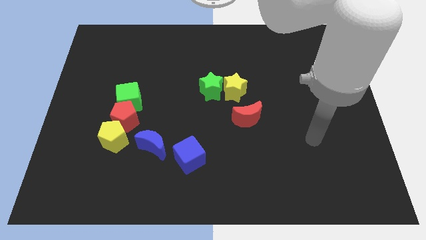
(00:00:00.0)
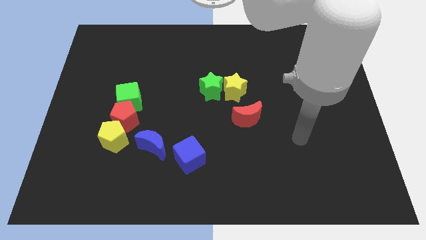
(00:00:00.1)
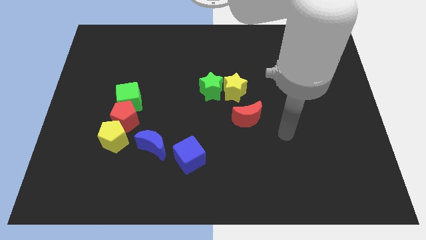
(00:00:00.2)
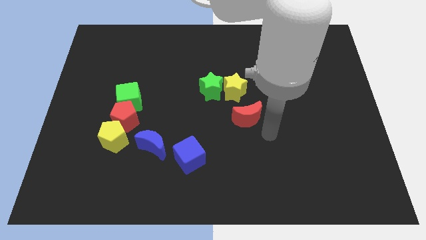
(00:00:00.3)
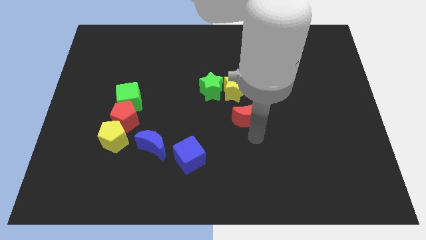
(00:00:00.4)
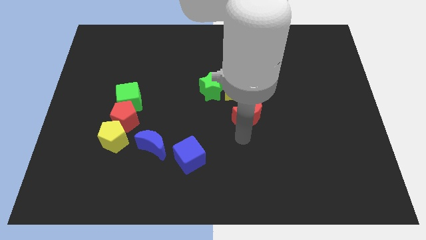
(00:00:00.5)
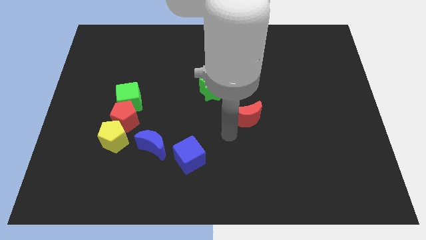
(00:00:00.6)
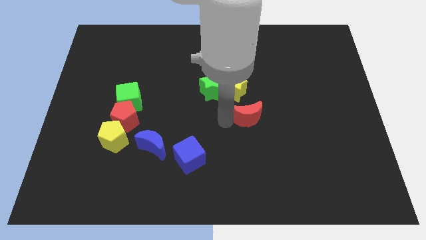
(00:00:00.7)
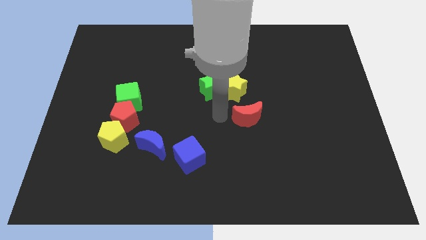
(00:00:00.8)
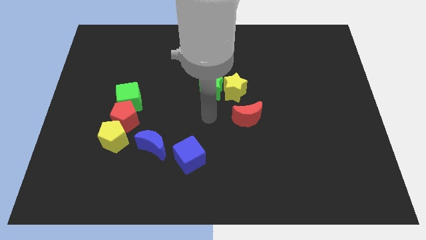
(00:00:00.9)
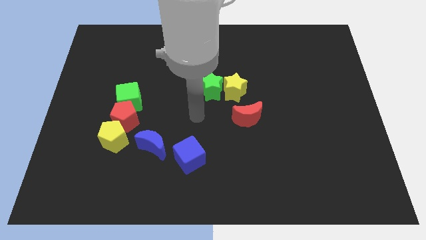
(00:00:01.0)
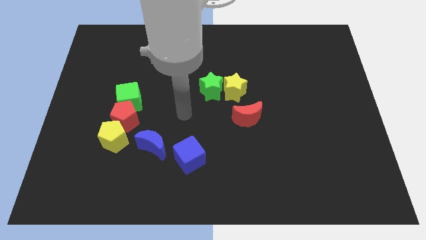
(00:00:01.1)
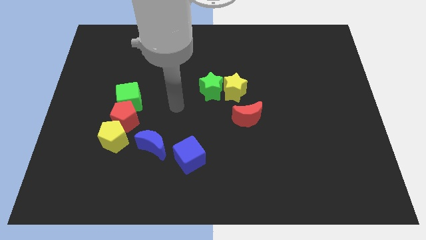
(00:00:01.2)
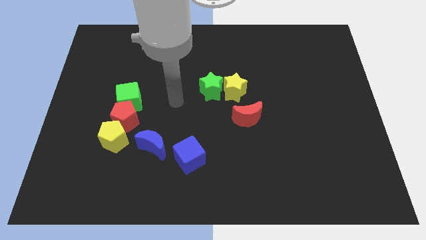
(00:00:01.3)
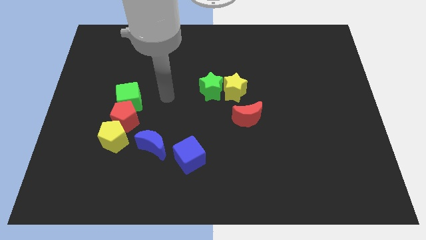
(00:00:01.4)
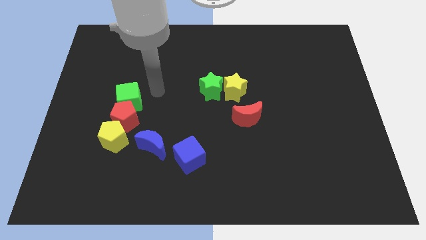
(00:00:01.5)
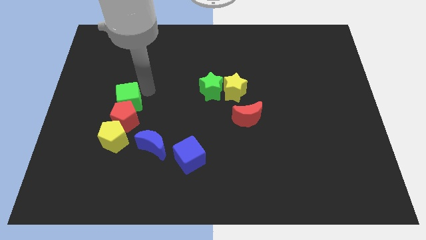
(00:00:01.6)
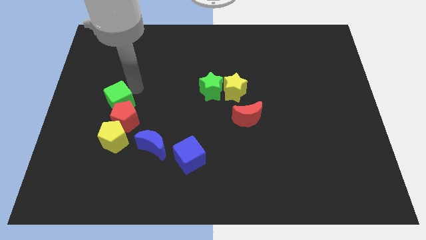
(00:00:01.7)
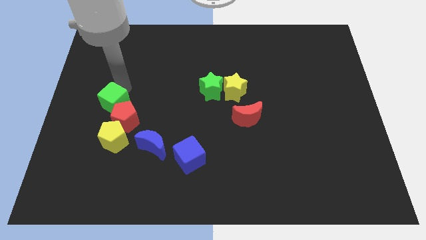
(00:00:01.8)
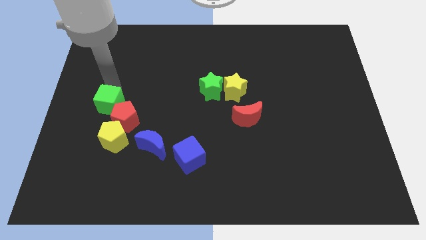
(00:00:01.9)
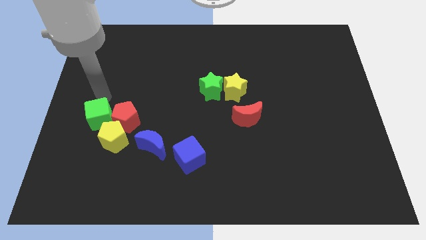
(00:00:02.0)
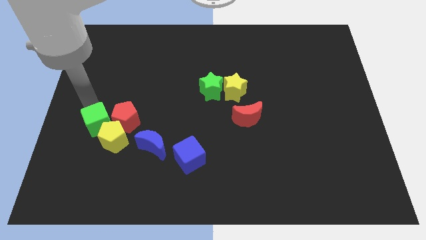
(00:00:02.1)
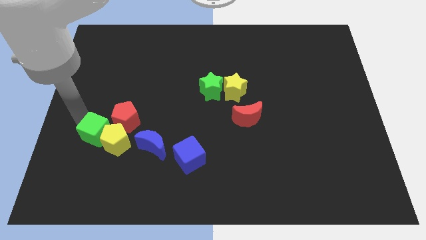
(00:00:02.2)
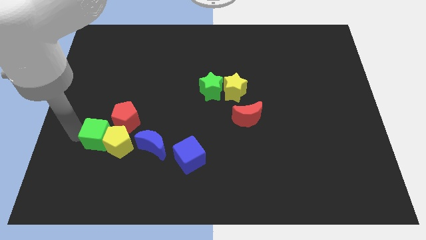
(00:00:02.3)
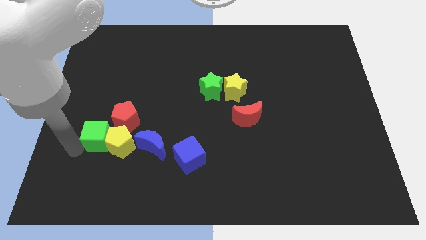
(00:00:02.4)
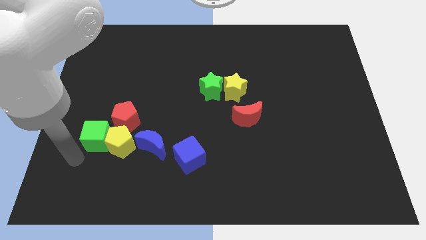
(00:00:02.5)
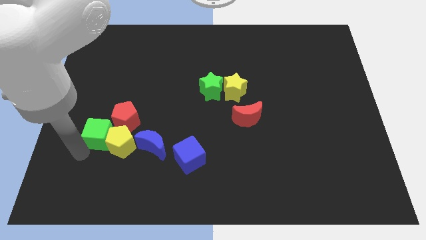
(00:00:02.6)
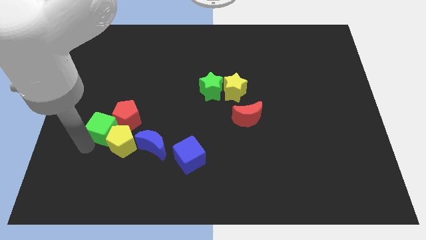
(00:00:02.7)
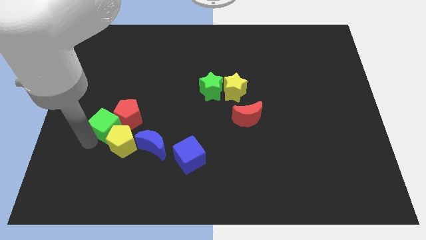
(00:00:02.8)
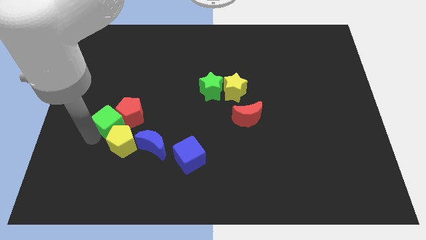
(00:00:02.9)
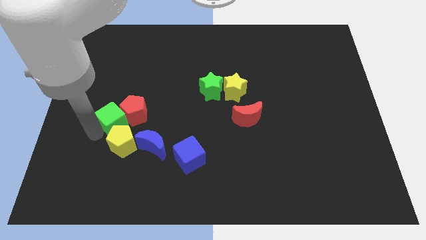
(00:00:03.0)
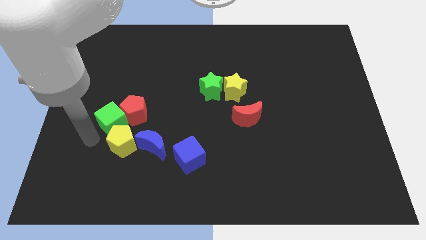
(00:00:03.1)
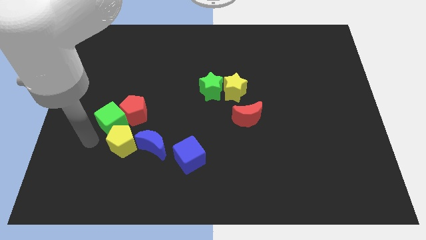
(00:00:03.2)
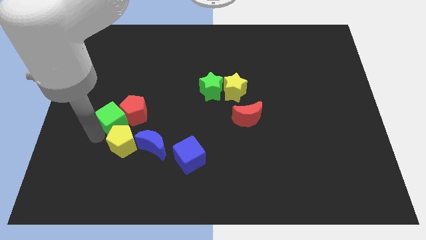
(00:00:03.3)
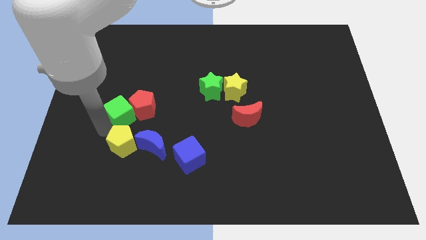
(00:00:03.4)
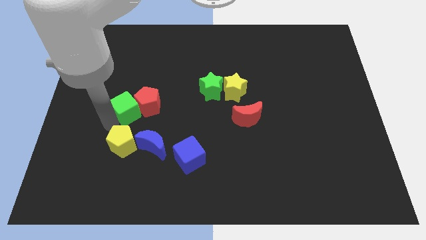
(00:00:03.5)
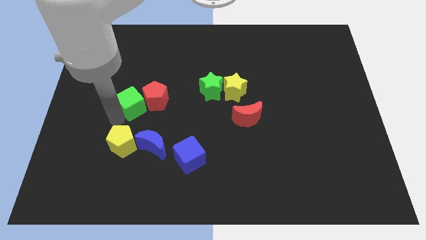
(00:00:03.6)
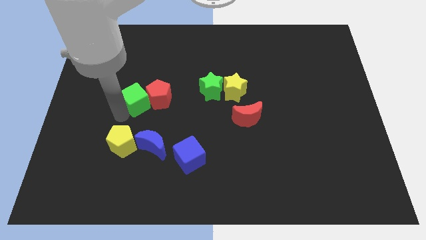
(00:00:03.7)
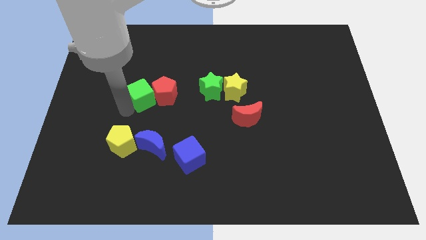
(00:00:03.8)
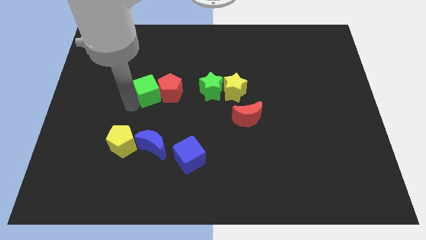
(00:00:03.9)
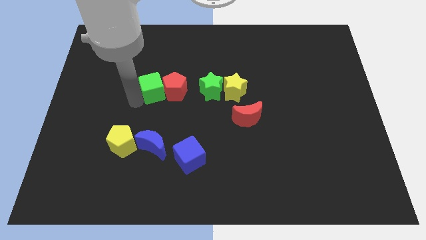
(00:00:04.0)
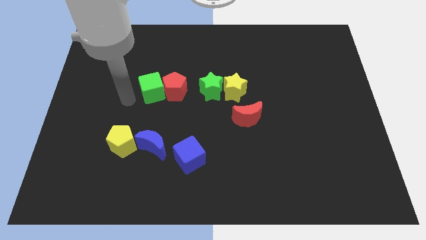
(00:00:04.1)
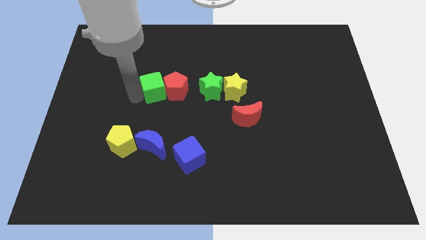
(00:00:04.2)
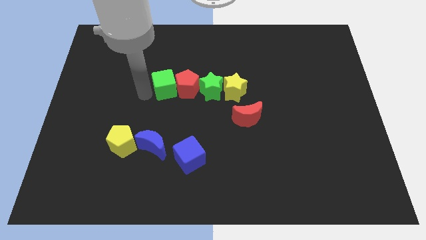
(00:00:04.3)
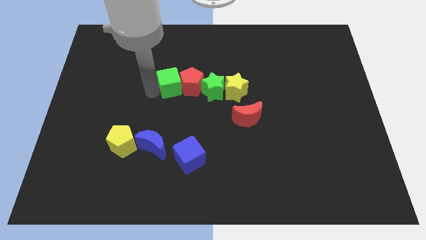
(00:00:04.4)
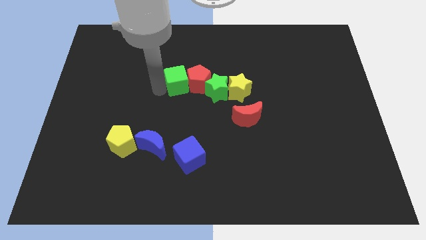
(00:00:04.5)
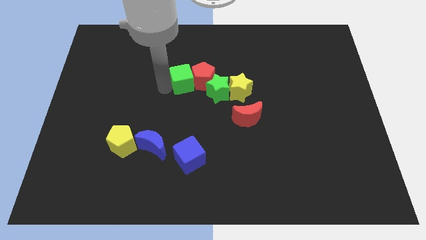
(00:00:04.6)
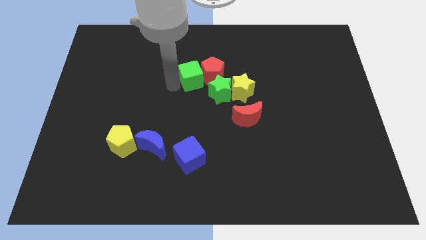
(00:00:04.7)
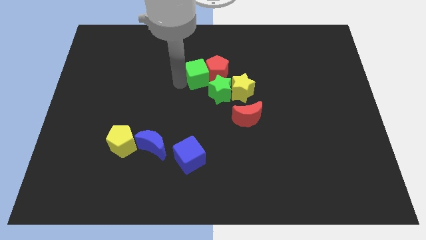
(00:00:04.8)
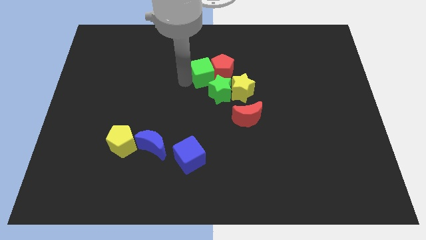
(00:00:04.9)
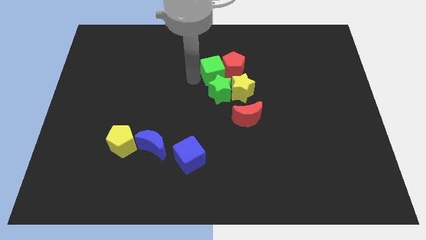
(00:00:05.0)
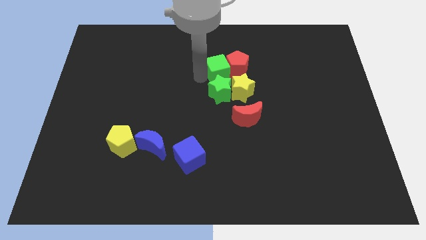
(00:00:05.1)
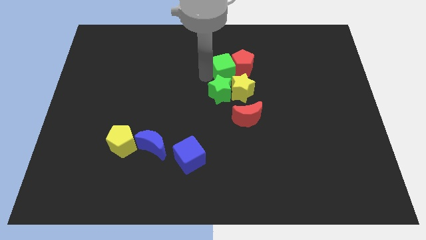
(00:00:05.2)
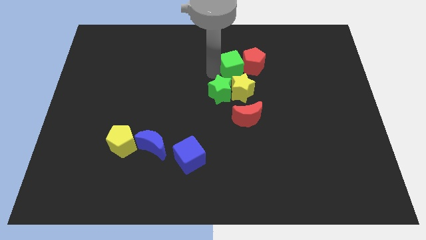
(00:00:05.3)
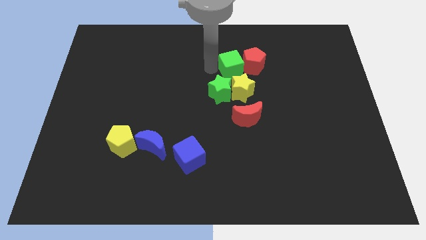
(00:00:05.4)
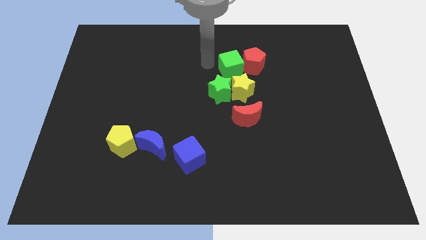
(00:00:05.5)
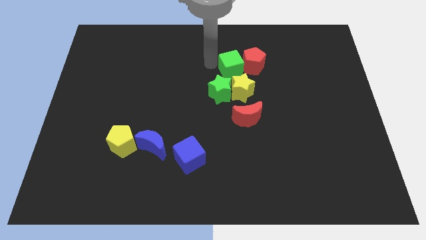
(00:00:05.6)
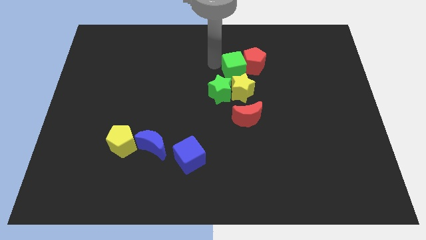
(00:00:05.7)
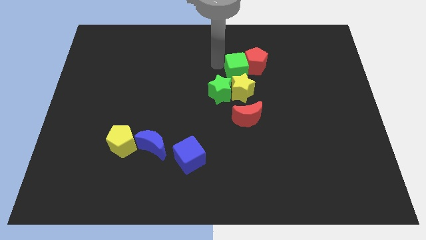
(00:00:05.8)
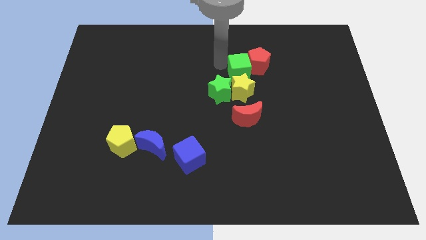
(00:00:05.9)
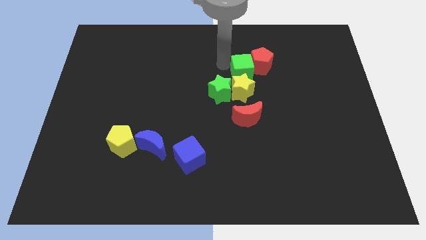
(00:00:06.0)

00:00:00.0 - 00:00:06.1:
put the green cube diagonally up and to the right of the yellow star
